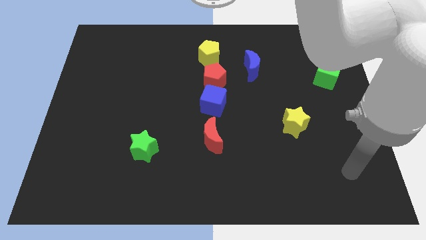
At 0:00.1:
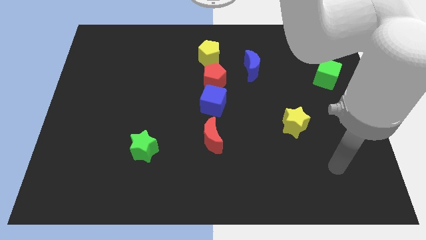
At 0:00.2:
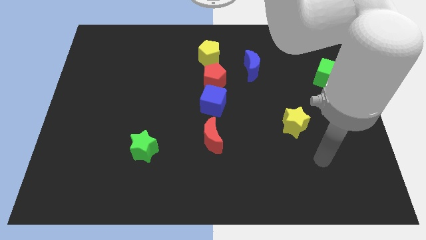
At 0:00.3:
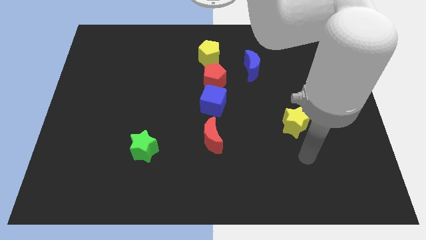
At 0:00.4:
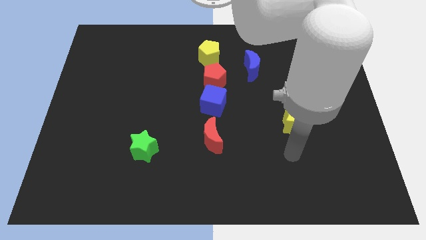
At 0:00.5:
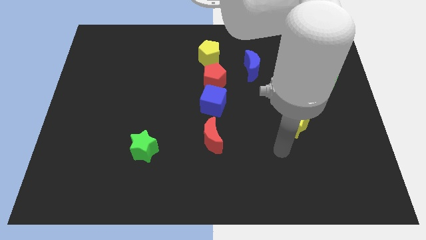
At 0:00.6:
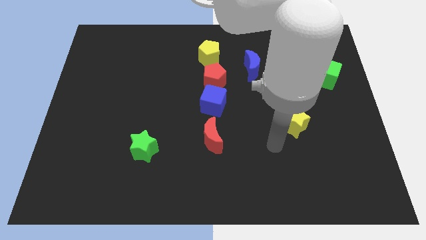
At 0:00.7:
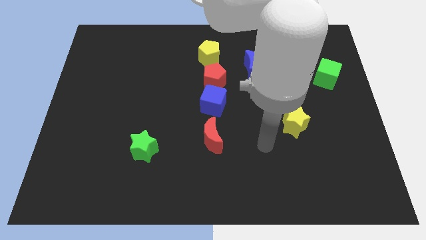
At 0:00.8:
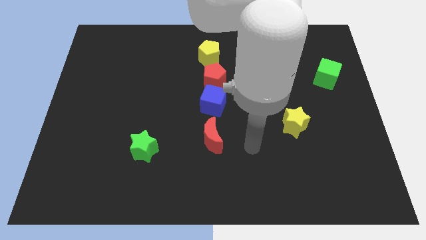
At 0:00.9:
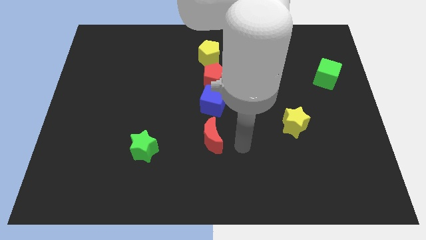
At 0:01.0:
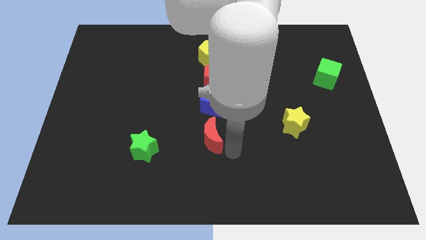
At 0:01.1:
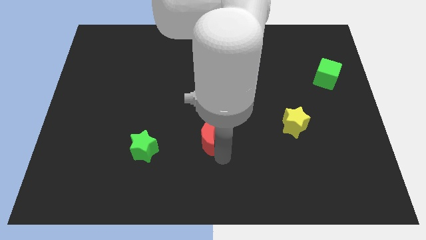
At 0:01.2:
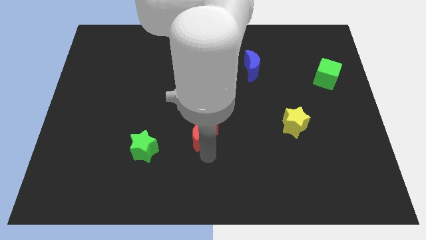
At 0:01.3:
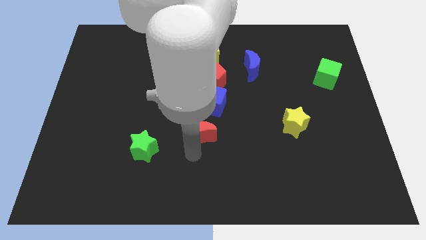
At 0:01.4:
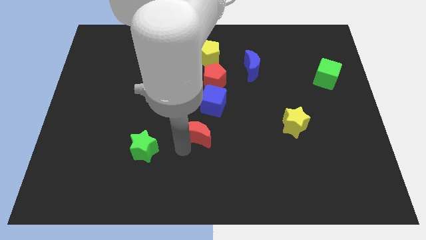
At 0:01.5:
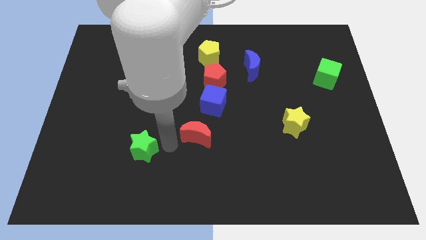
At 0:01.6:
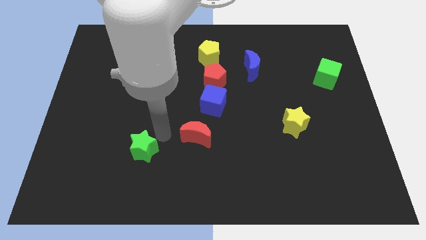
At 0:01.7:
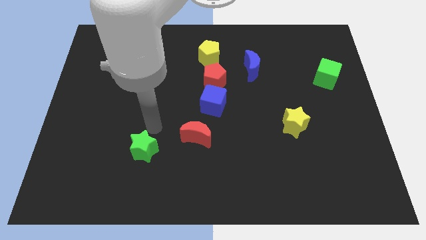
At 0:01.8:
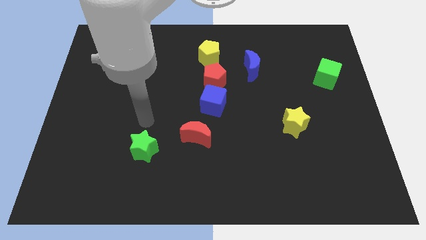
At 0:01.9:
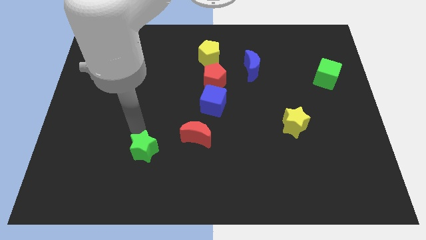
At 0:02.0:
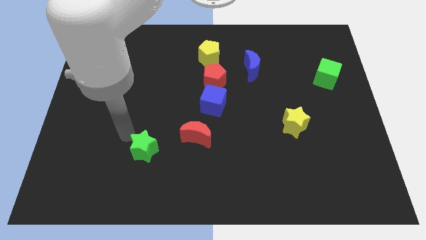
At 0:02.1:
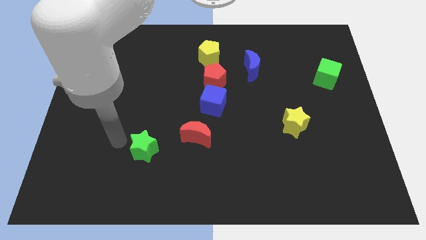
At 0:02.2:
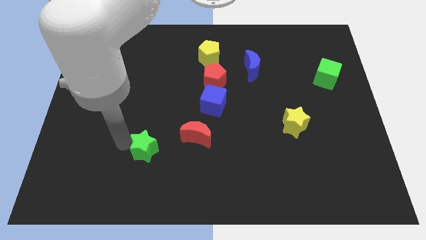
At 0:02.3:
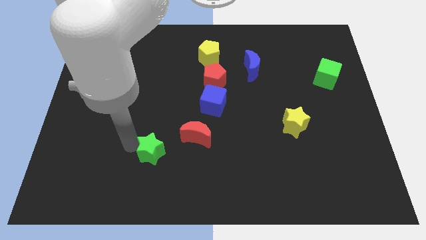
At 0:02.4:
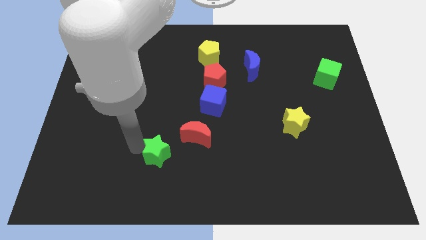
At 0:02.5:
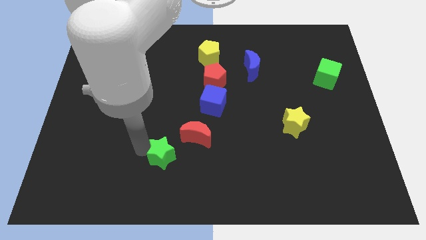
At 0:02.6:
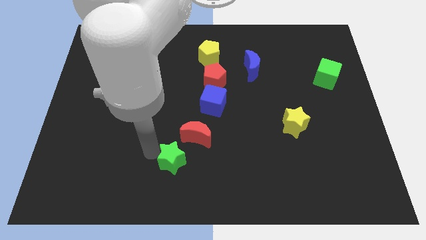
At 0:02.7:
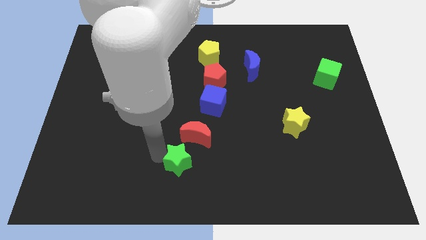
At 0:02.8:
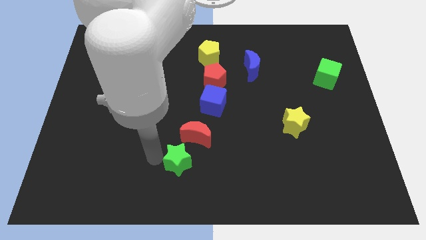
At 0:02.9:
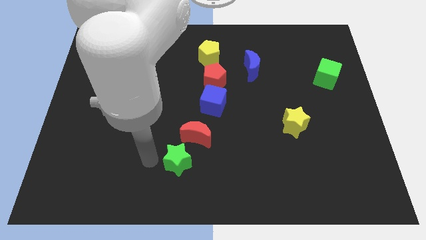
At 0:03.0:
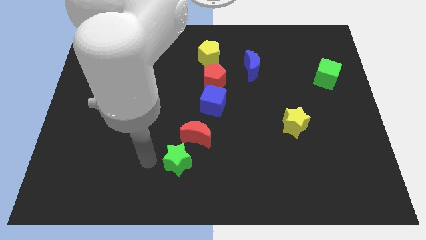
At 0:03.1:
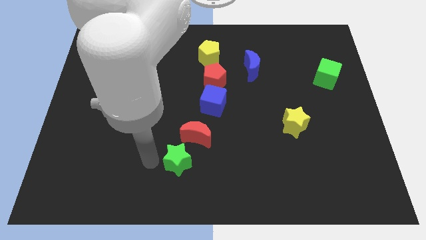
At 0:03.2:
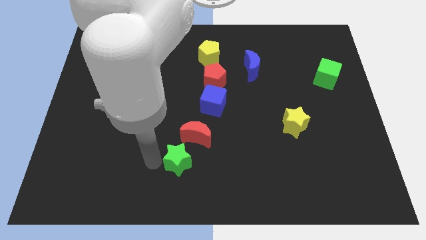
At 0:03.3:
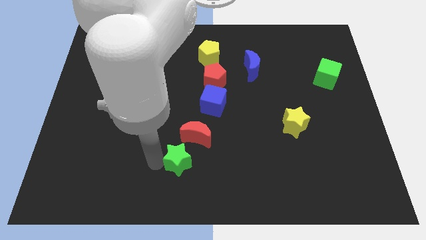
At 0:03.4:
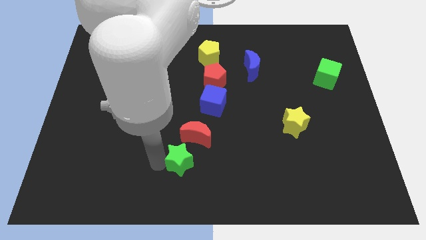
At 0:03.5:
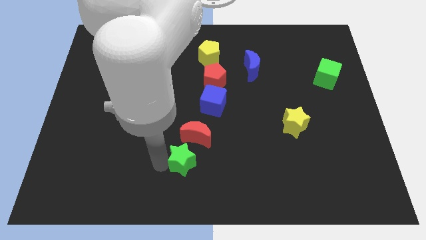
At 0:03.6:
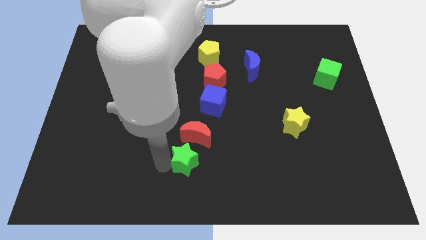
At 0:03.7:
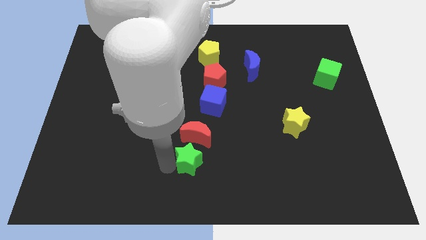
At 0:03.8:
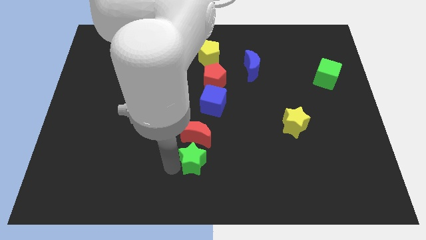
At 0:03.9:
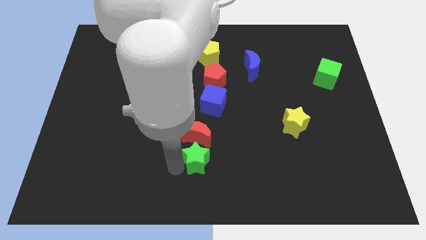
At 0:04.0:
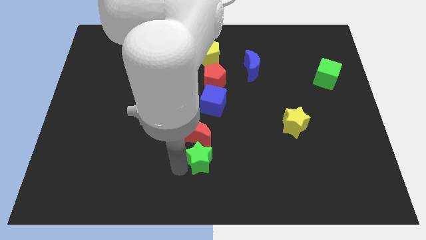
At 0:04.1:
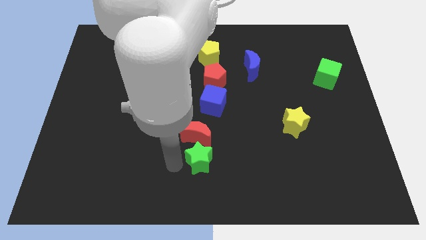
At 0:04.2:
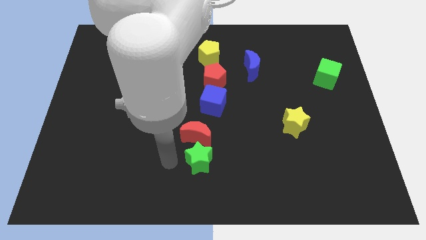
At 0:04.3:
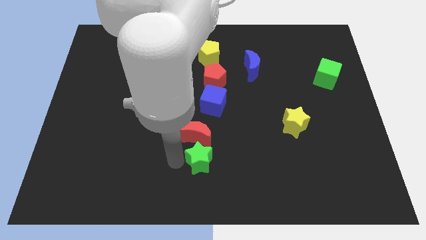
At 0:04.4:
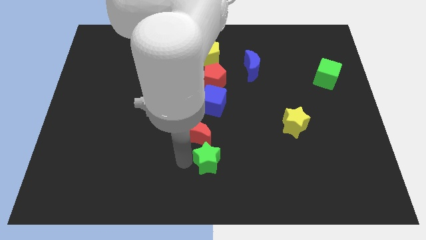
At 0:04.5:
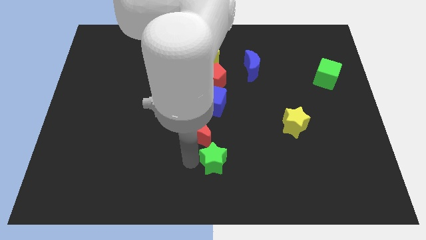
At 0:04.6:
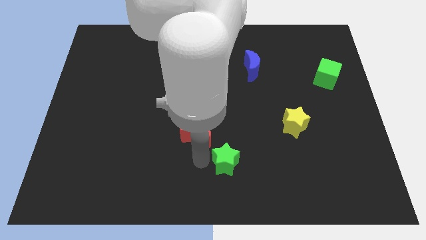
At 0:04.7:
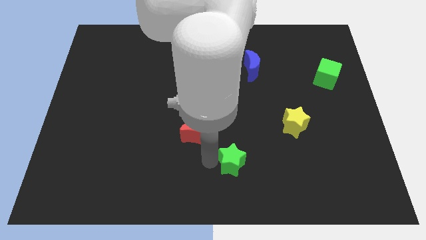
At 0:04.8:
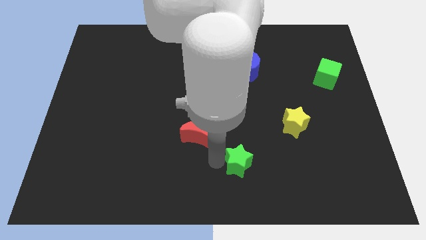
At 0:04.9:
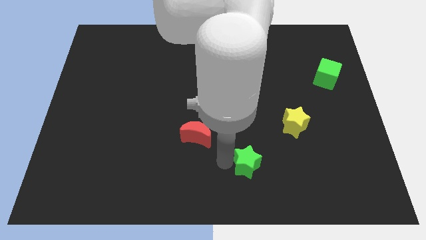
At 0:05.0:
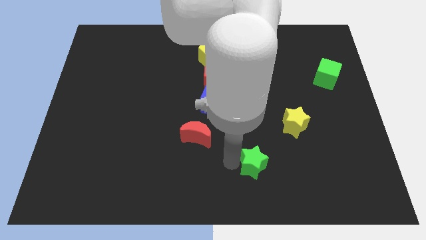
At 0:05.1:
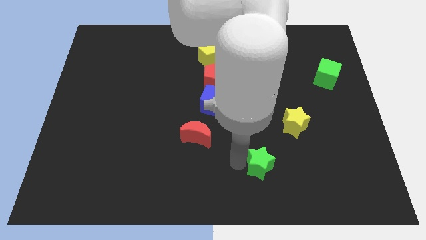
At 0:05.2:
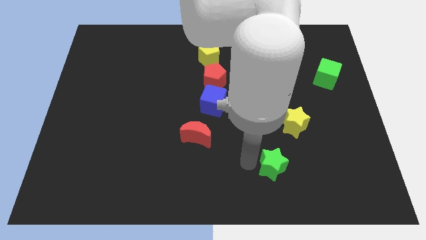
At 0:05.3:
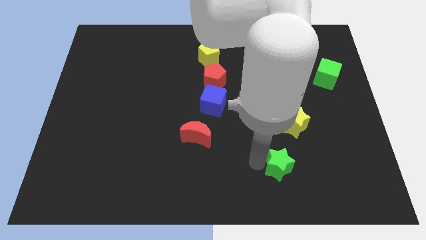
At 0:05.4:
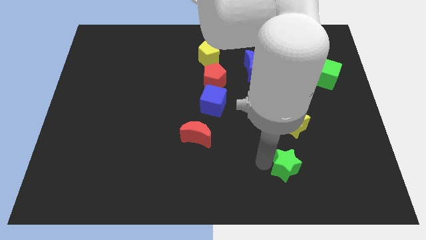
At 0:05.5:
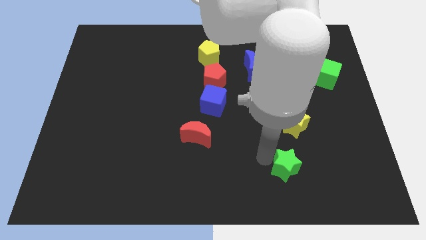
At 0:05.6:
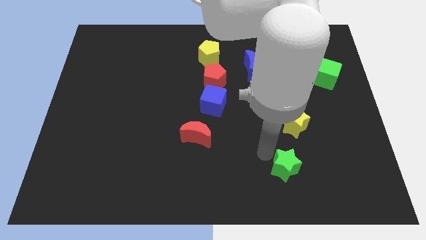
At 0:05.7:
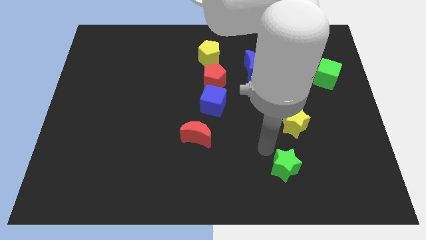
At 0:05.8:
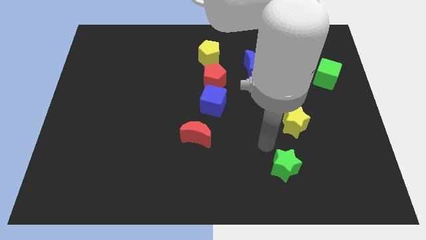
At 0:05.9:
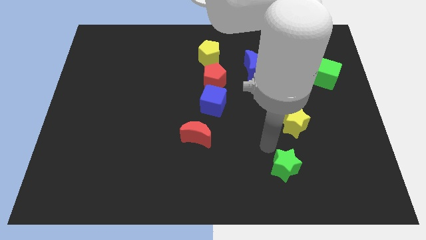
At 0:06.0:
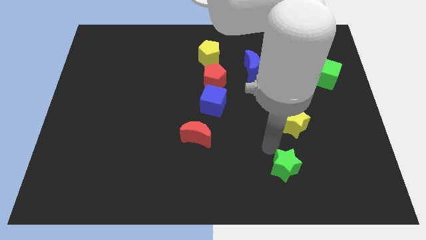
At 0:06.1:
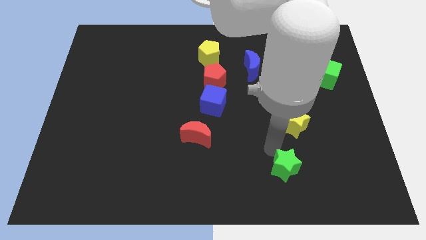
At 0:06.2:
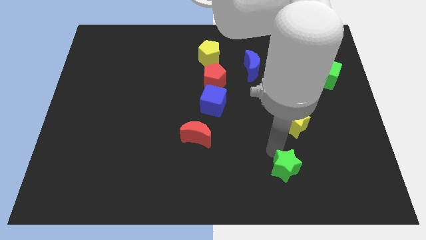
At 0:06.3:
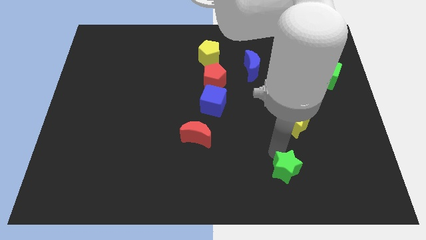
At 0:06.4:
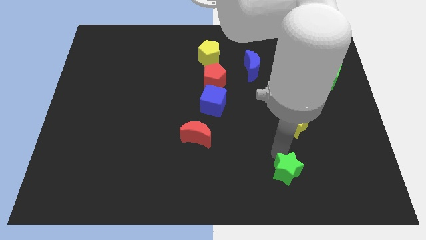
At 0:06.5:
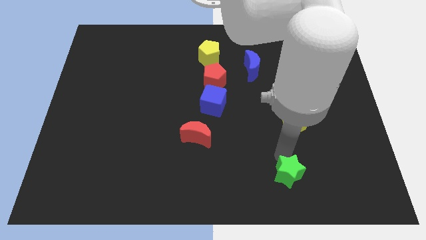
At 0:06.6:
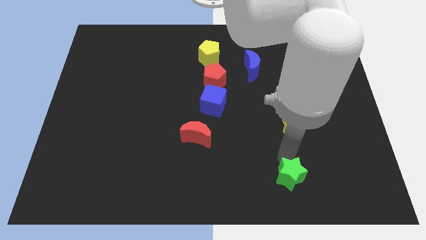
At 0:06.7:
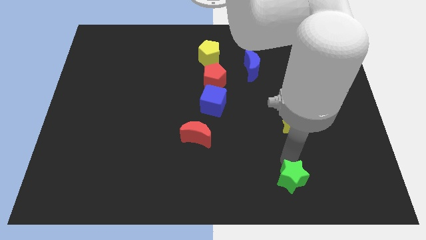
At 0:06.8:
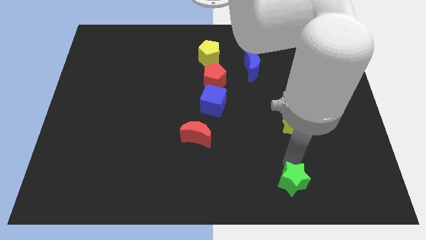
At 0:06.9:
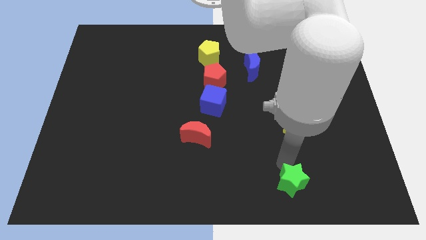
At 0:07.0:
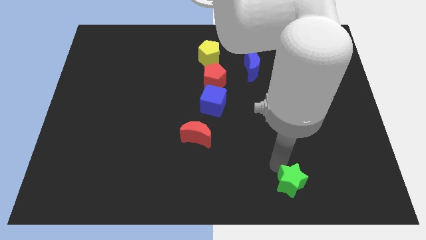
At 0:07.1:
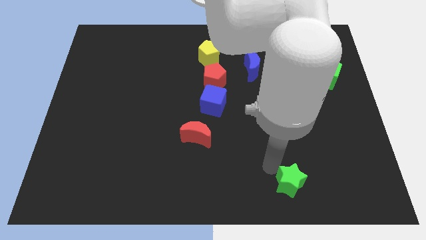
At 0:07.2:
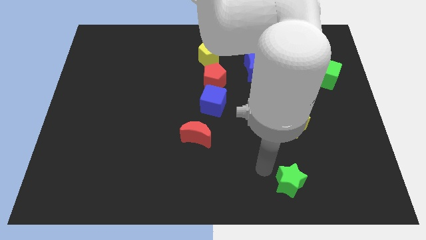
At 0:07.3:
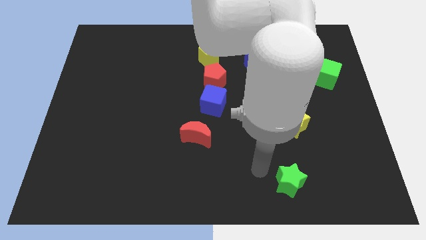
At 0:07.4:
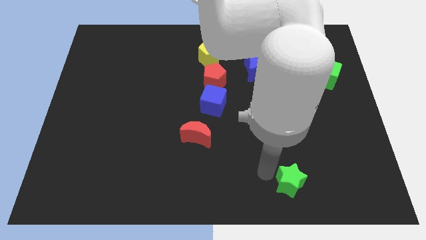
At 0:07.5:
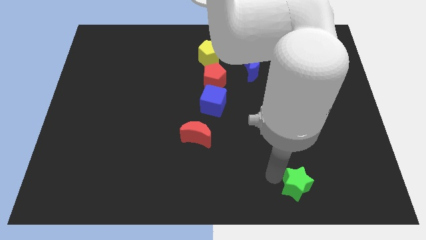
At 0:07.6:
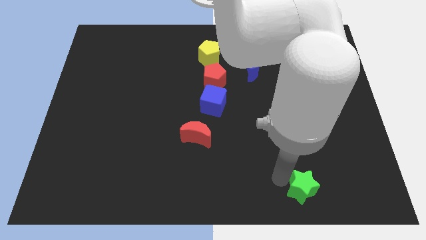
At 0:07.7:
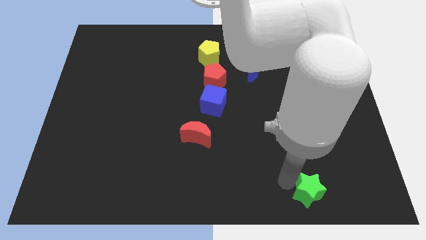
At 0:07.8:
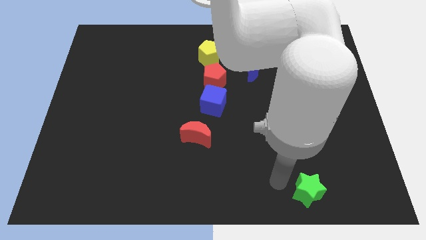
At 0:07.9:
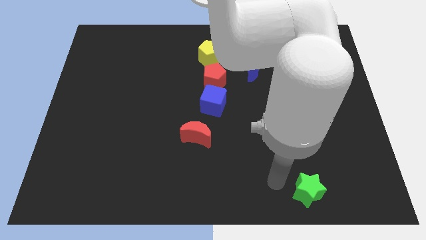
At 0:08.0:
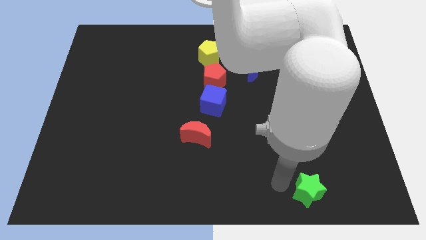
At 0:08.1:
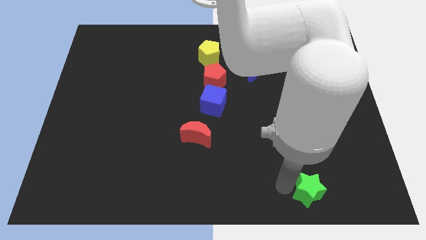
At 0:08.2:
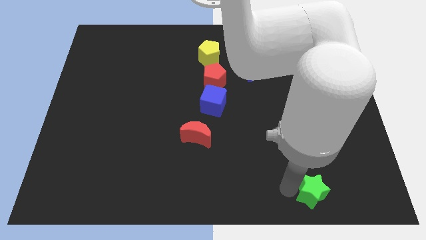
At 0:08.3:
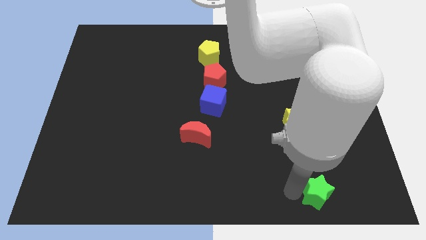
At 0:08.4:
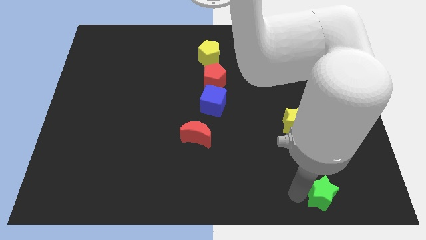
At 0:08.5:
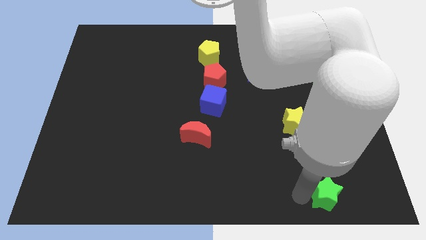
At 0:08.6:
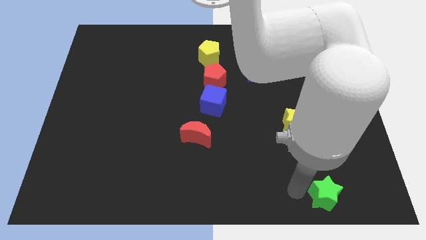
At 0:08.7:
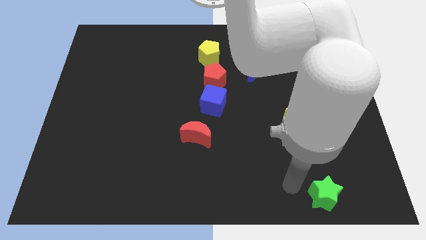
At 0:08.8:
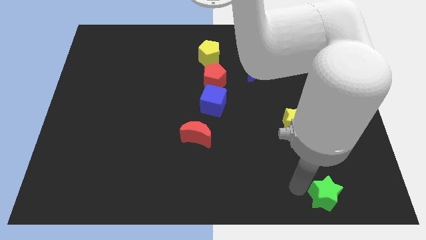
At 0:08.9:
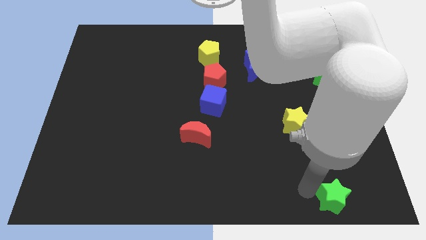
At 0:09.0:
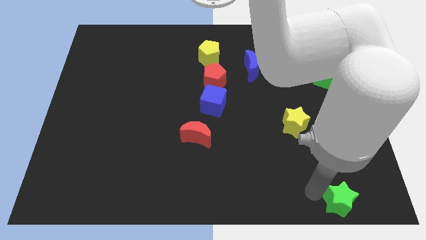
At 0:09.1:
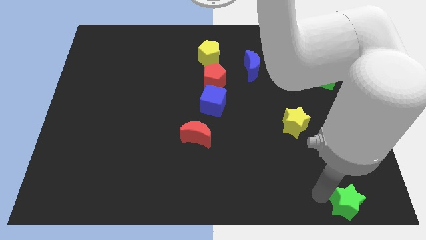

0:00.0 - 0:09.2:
push the green star to the bottom right of the board
